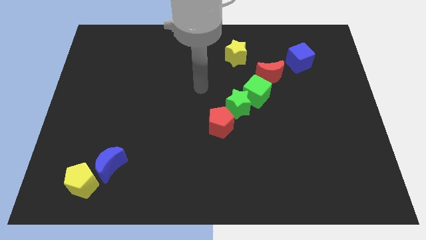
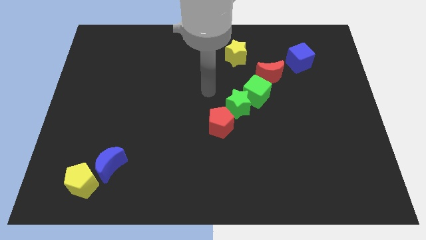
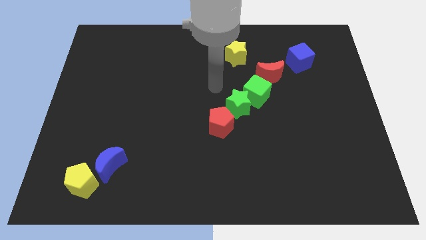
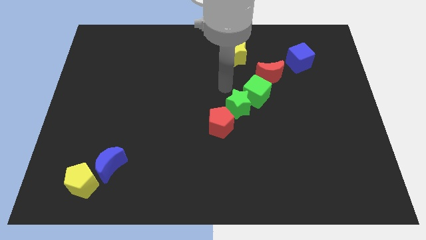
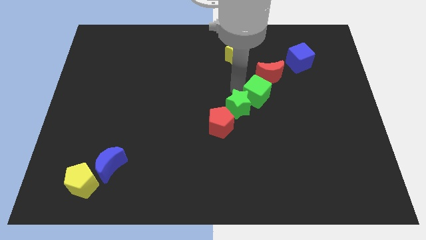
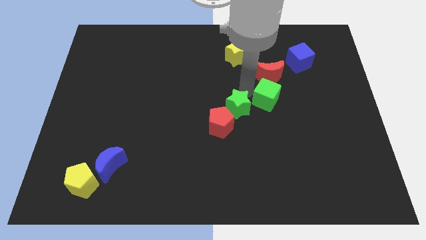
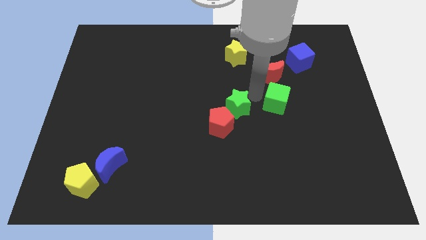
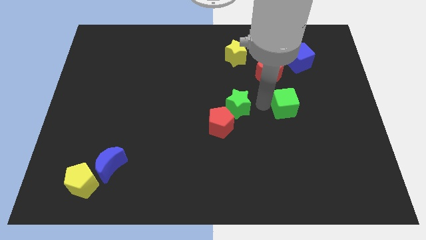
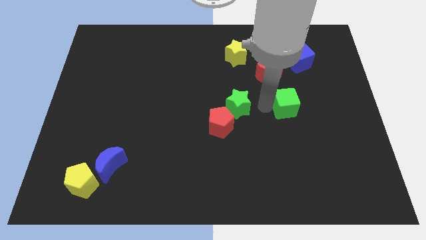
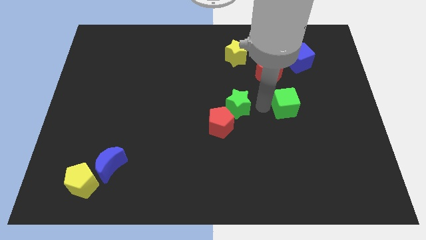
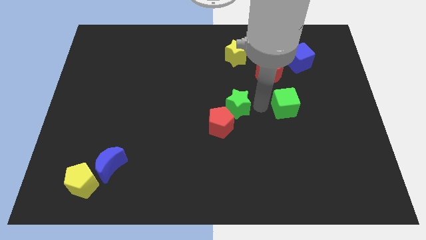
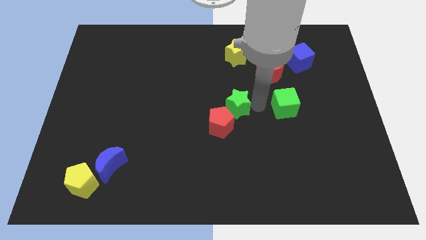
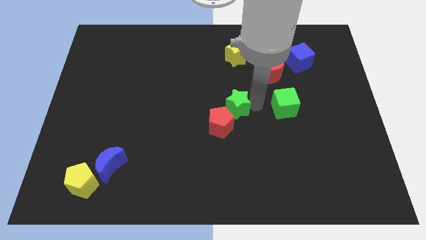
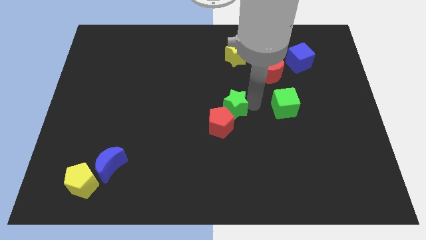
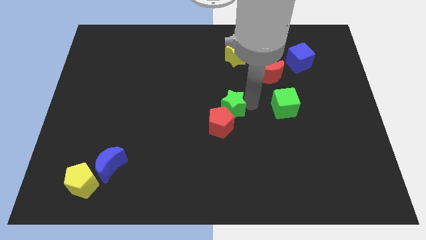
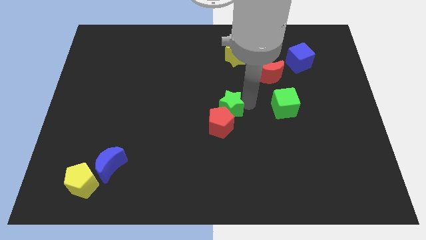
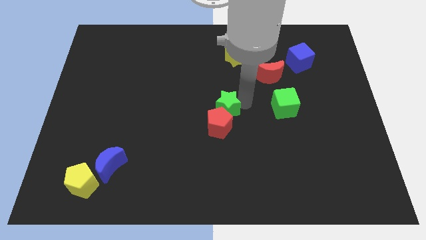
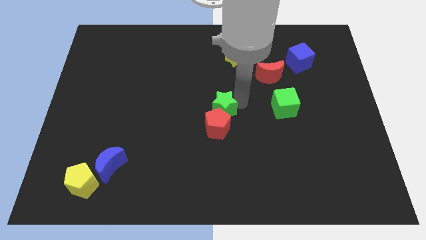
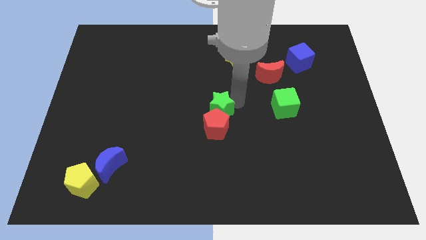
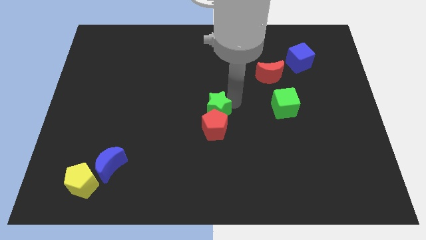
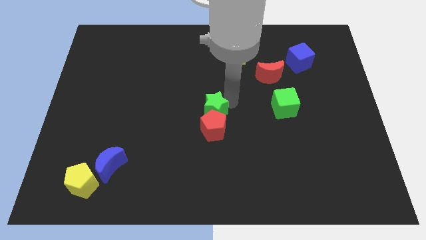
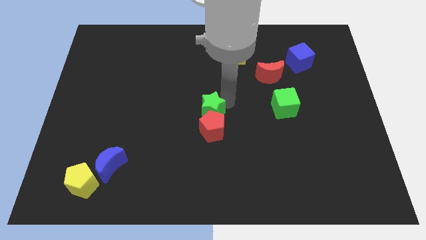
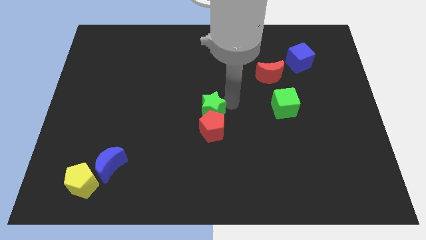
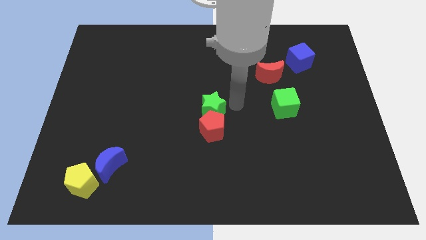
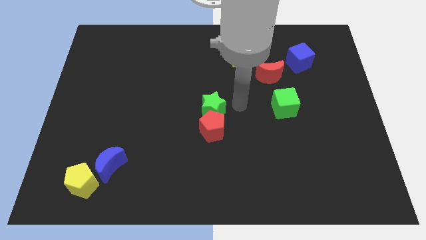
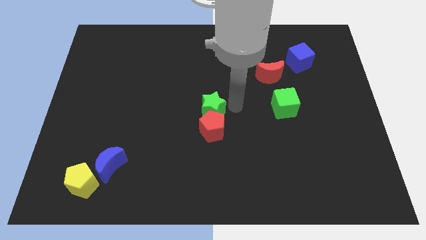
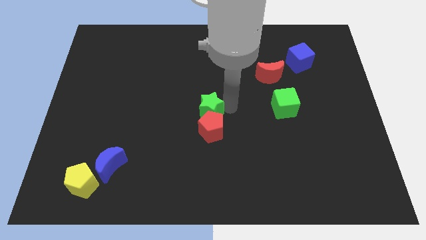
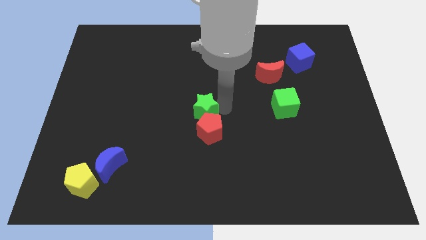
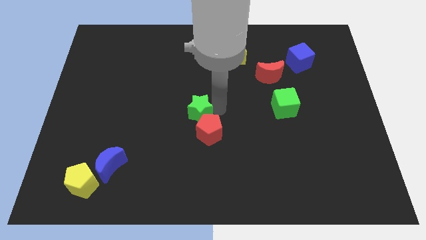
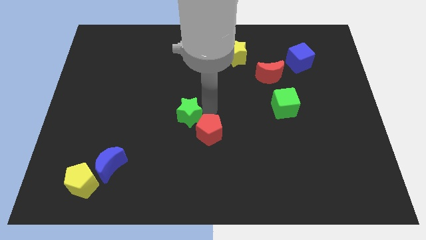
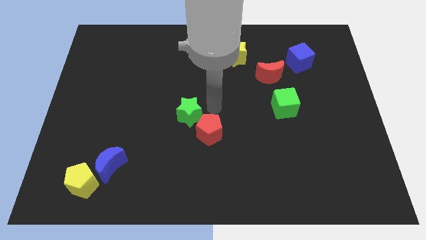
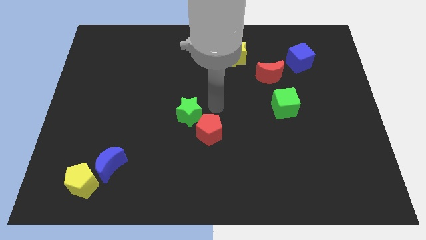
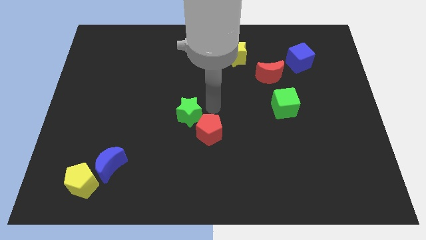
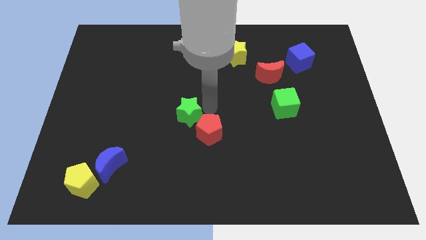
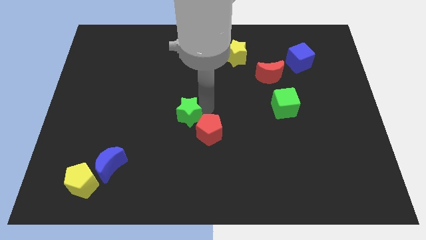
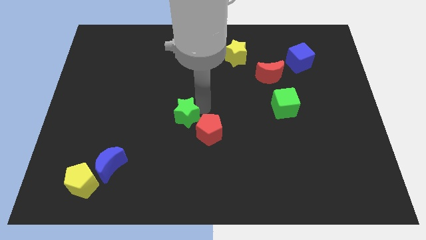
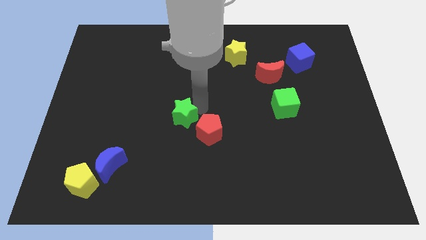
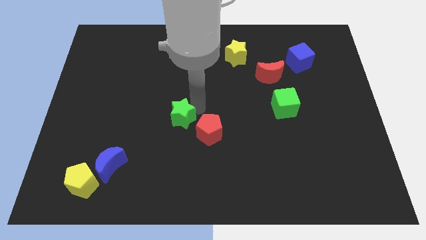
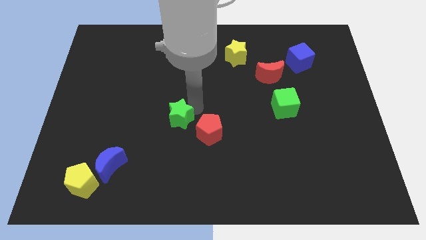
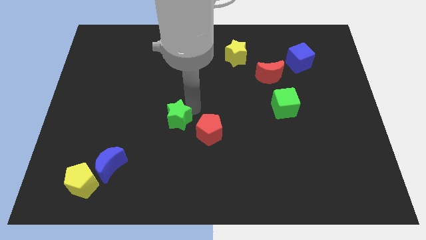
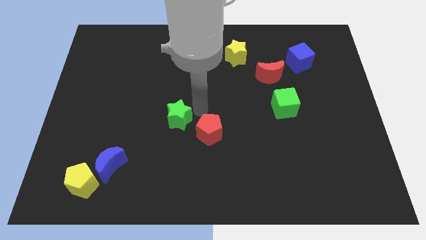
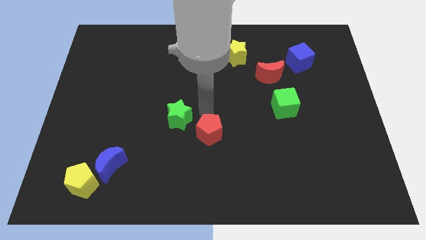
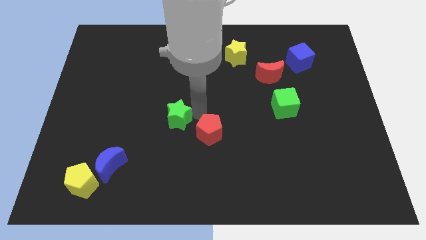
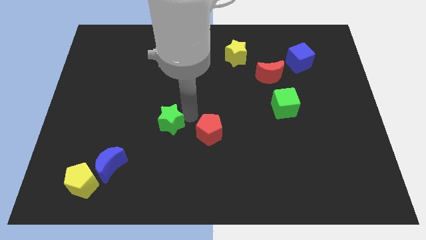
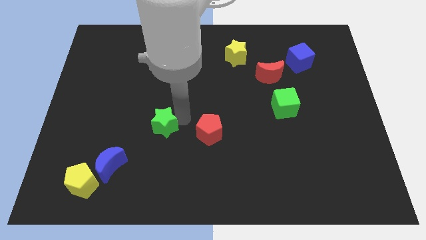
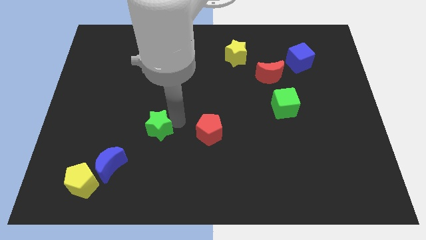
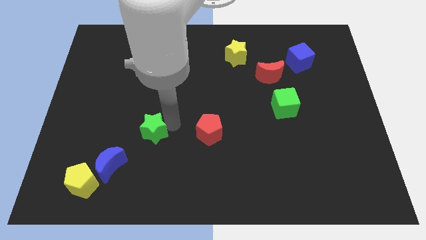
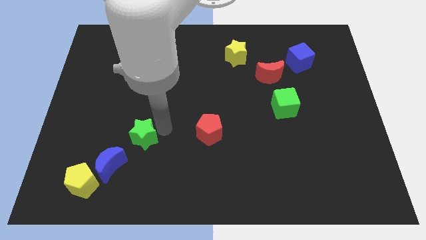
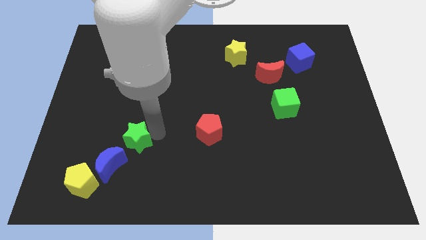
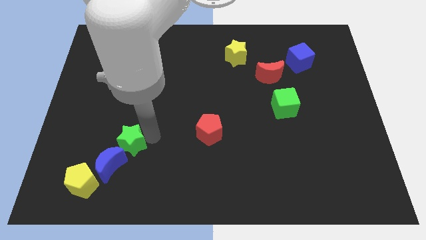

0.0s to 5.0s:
put the green star to the top right of the yellow pentagon

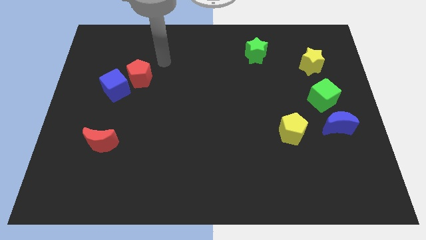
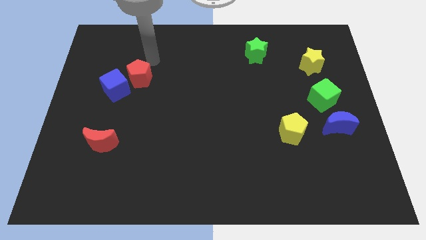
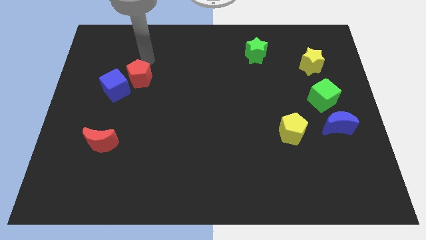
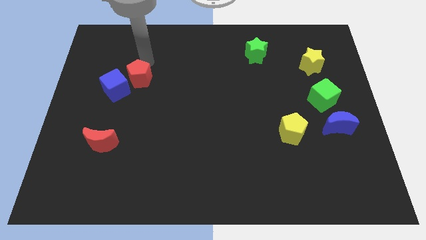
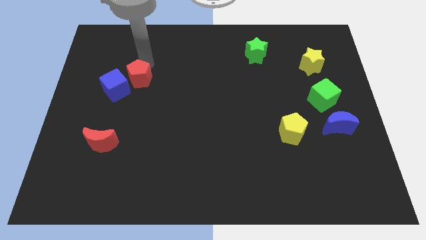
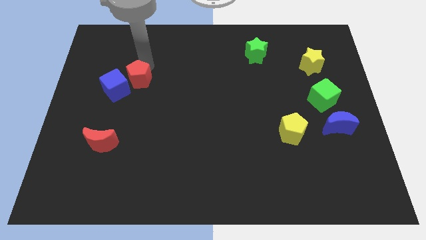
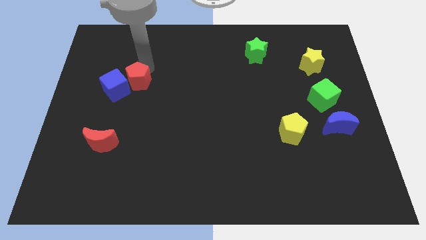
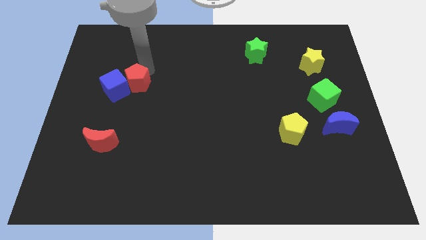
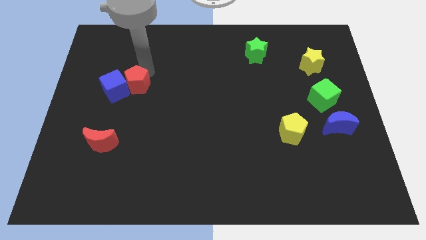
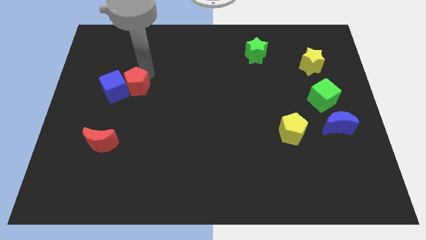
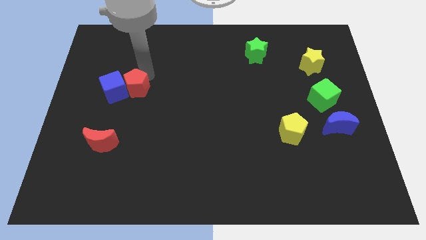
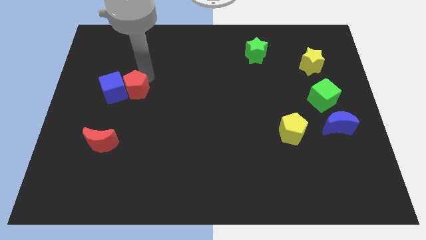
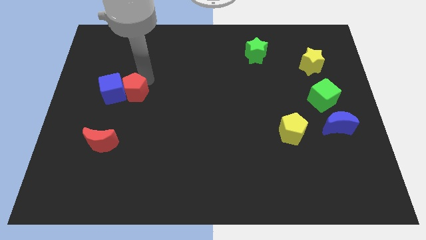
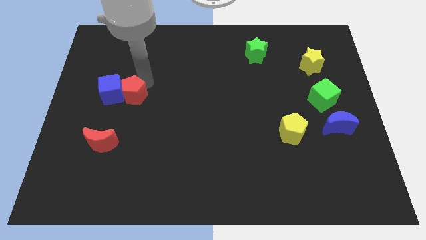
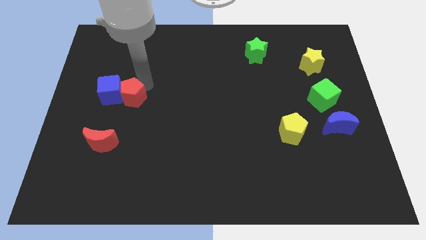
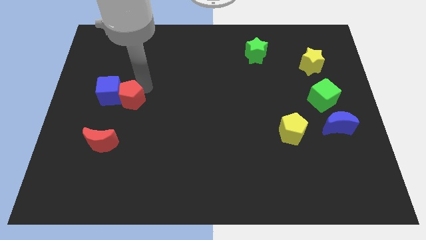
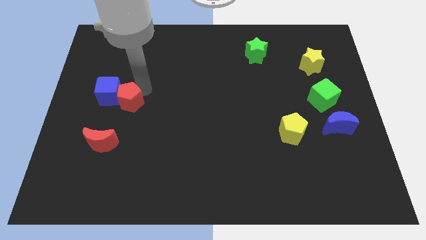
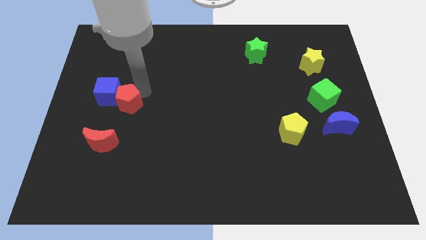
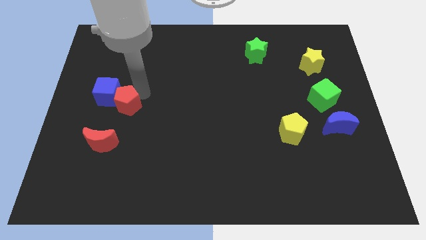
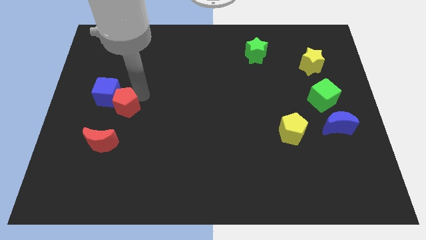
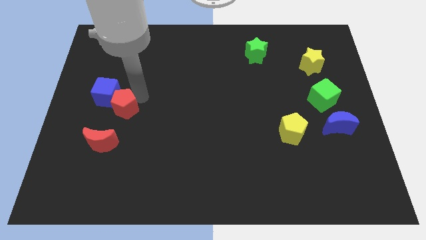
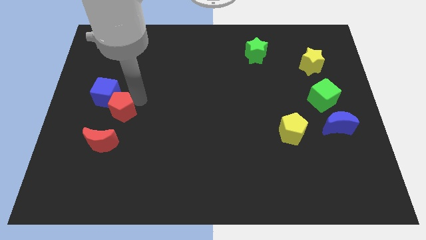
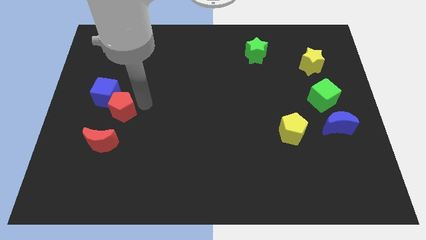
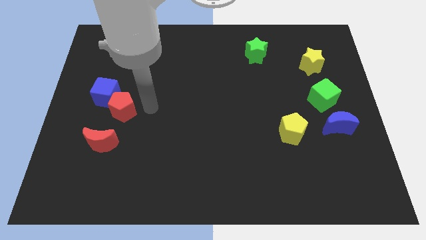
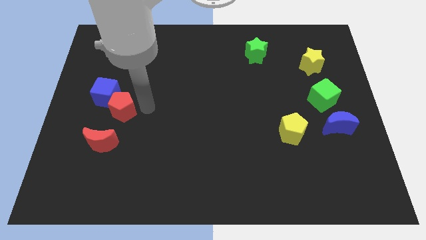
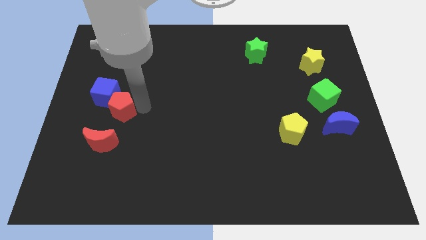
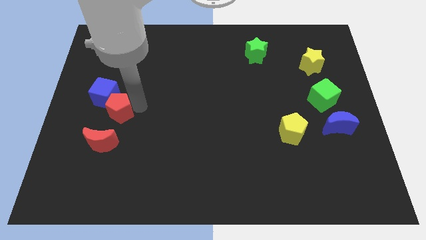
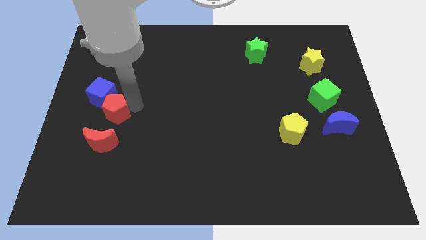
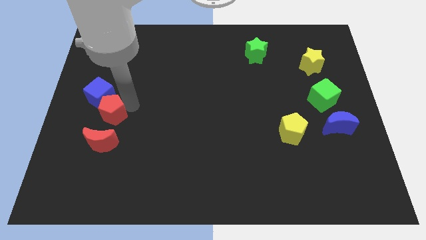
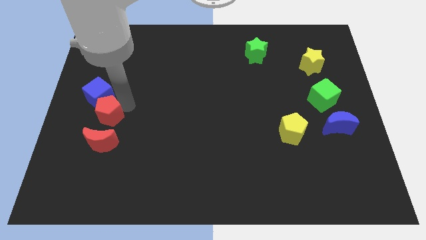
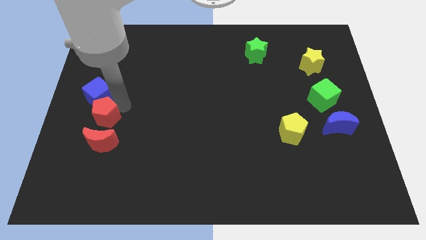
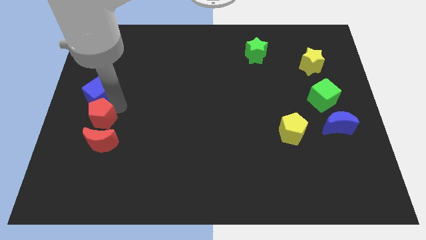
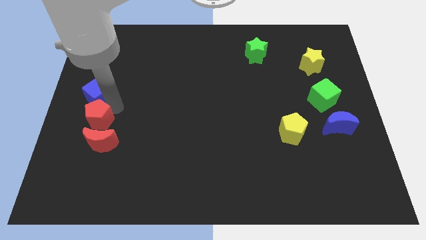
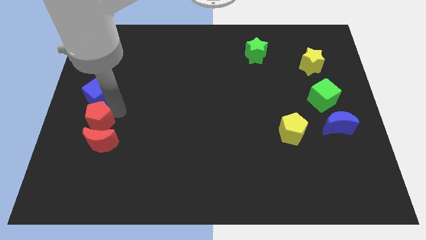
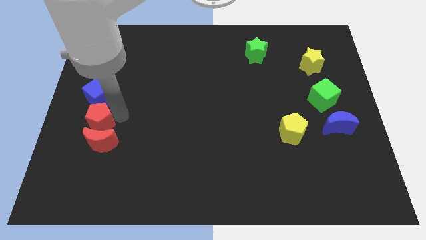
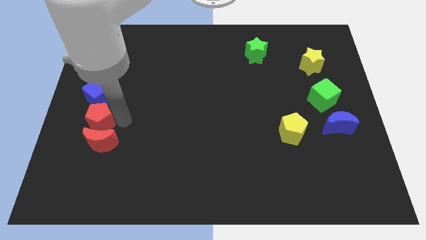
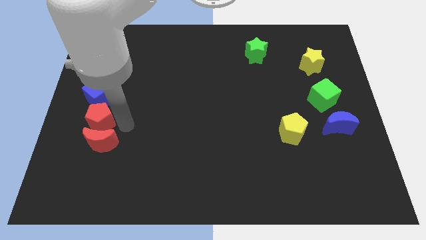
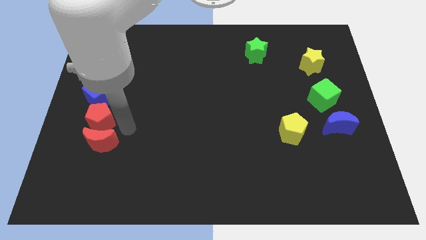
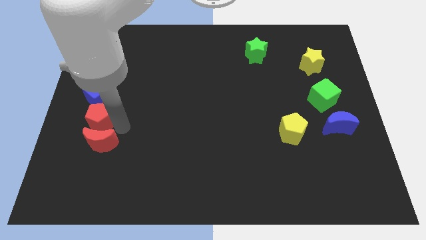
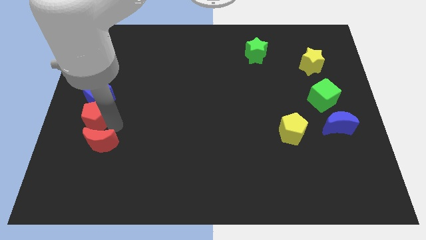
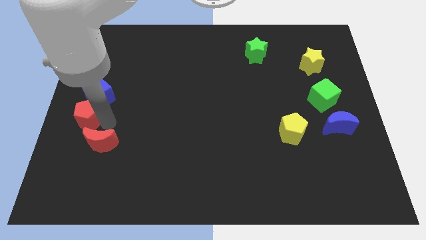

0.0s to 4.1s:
push the red pentagon to the bottom left of the blue cube
